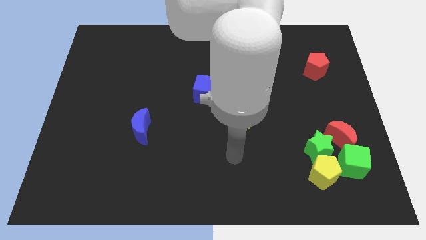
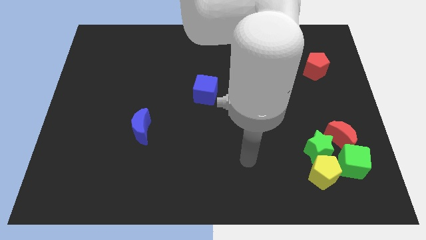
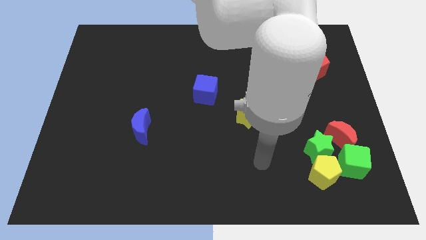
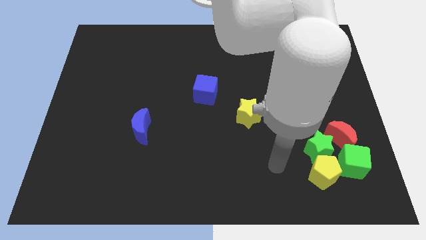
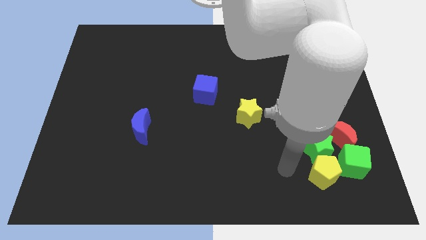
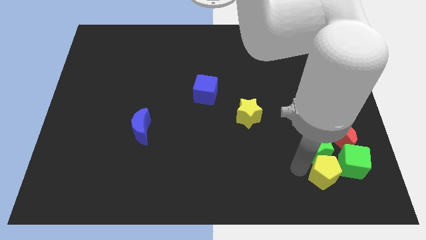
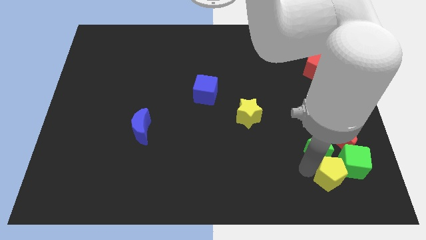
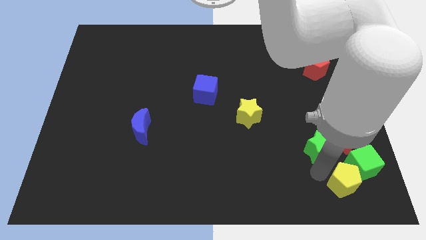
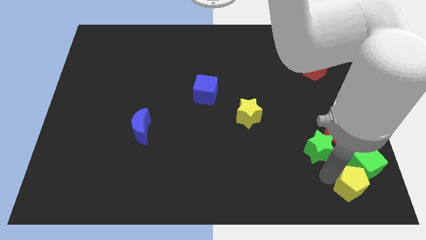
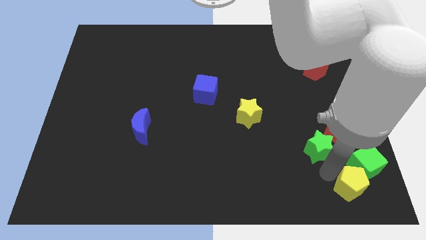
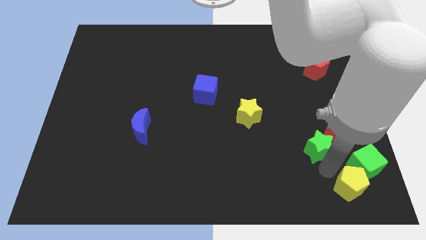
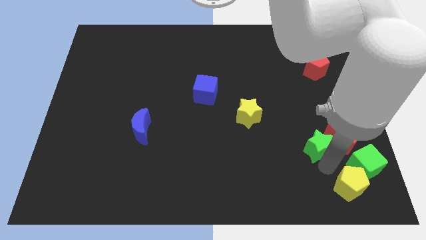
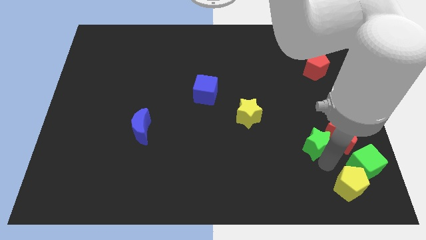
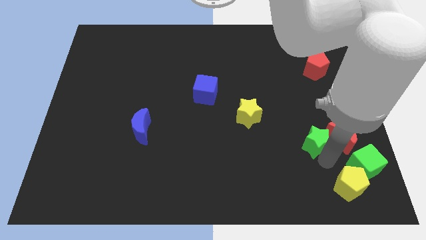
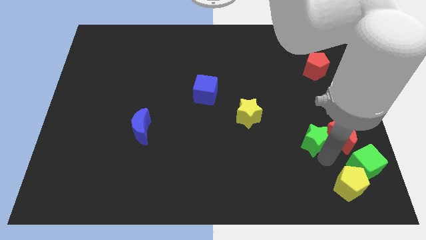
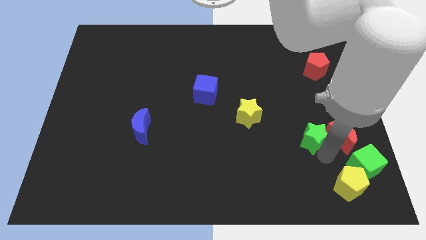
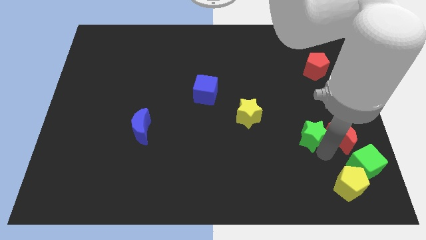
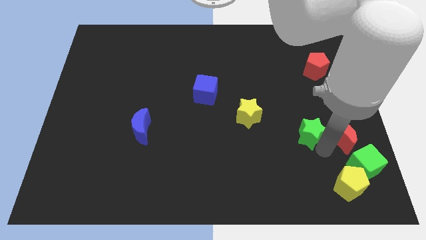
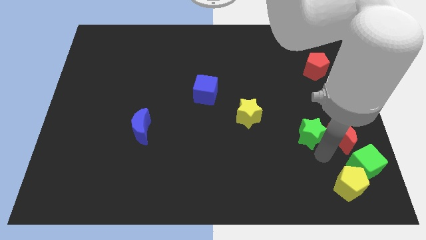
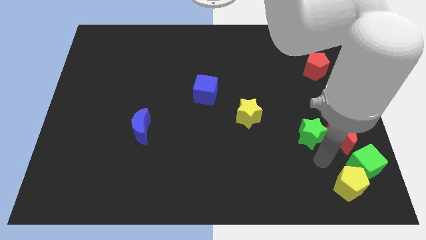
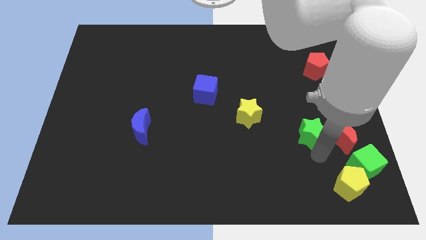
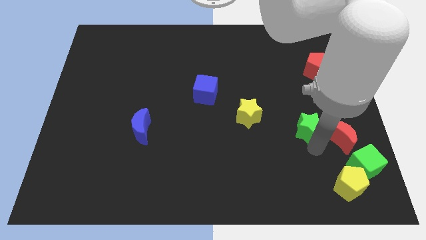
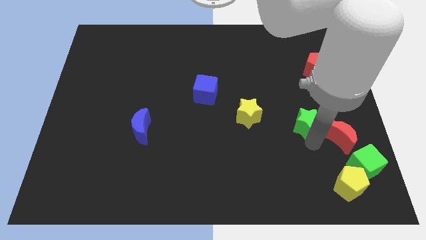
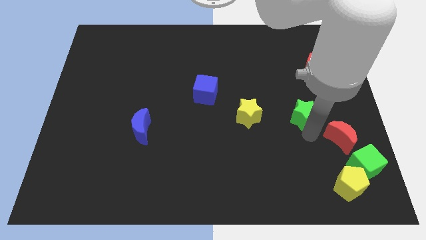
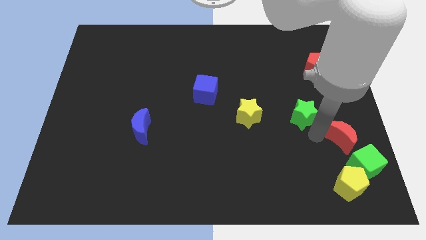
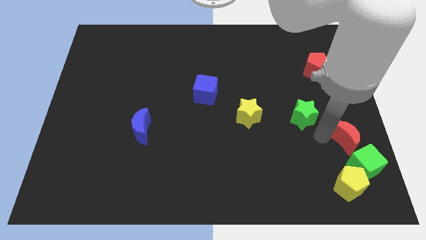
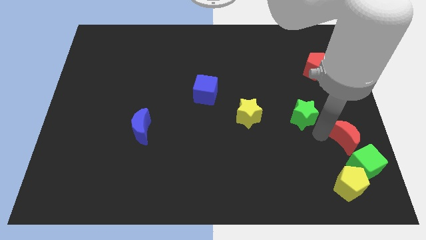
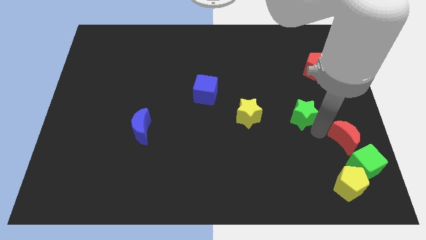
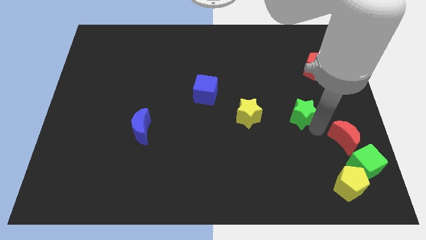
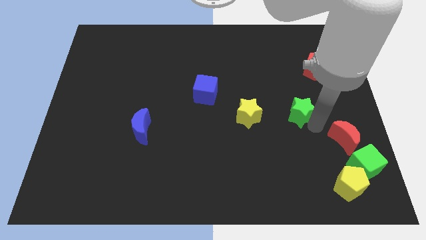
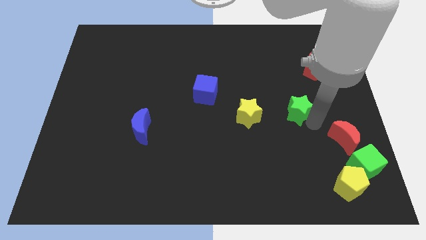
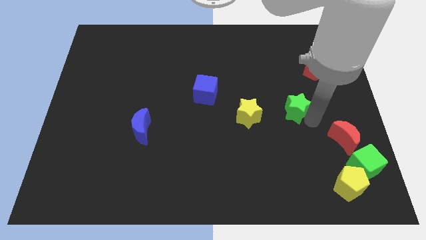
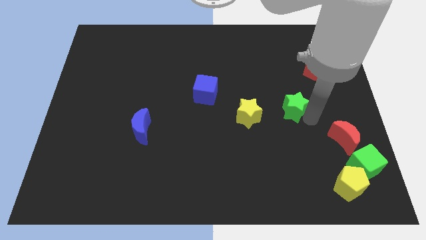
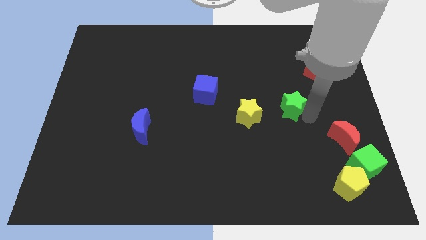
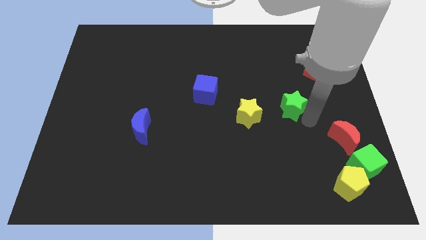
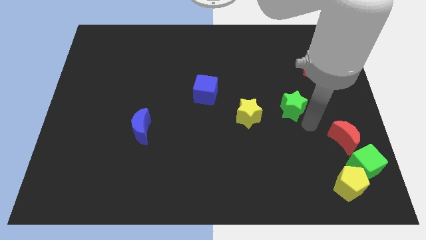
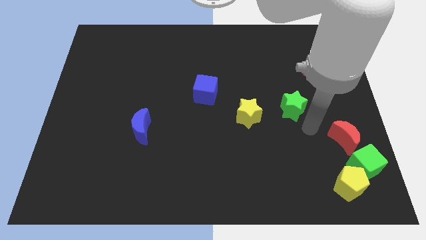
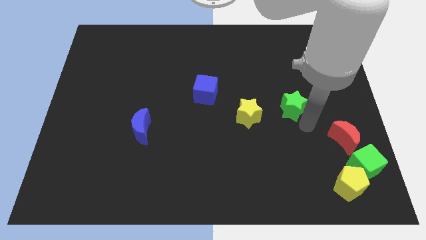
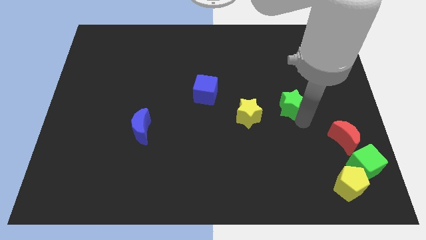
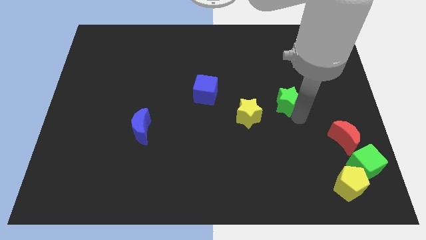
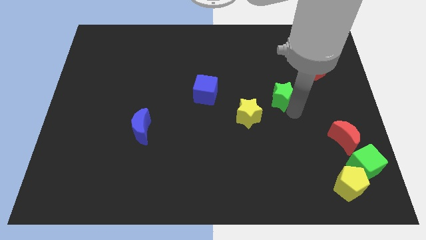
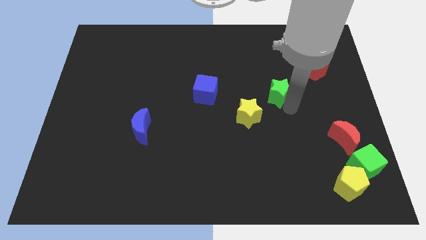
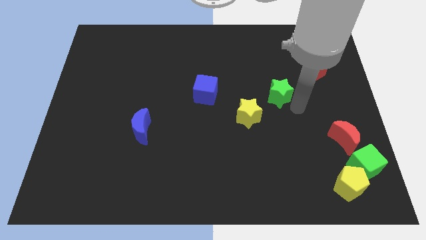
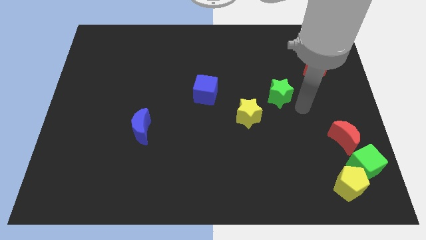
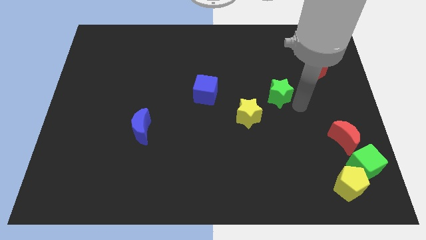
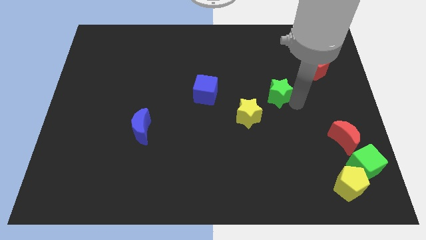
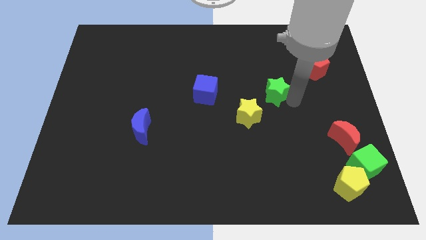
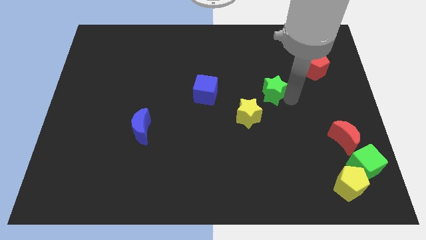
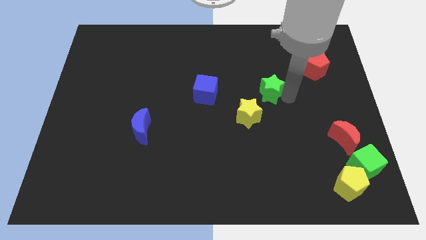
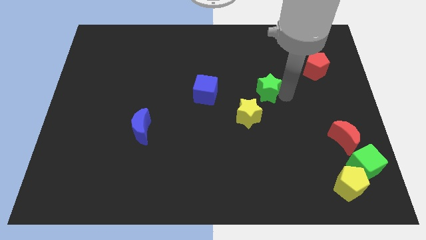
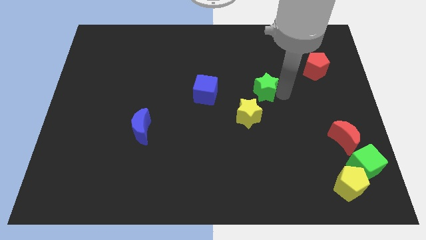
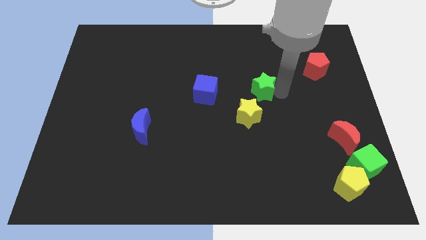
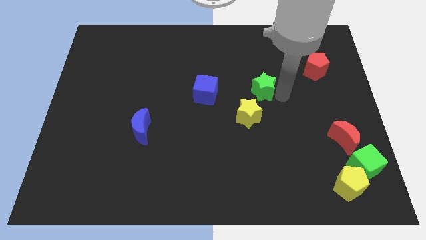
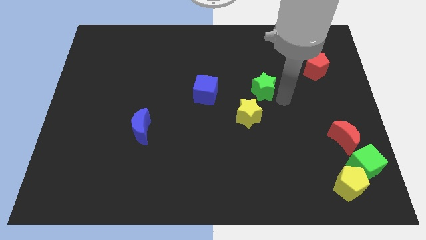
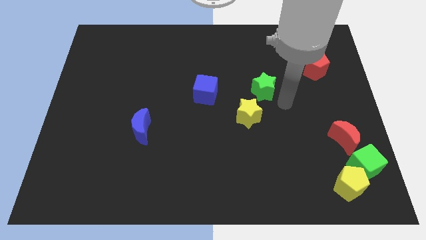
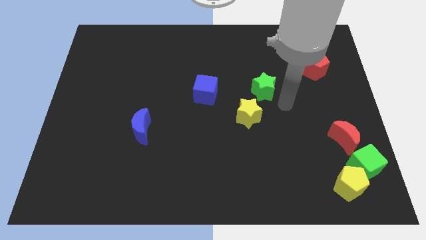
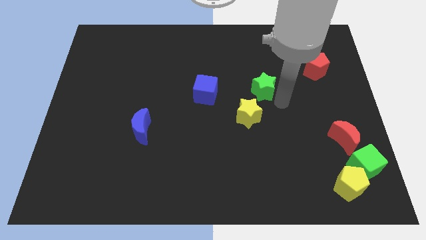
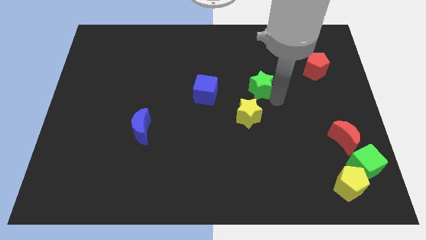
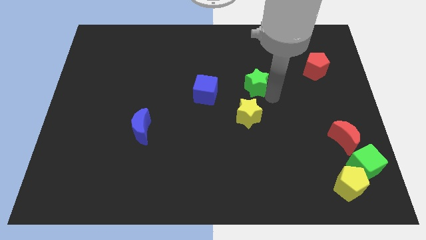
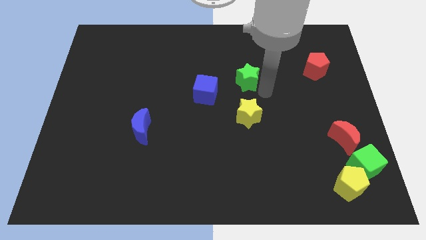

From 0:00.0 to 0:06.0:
slide the green star diagonally up and to the right of the blue cube
